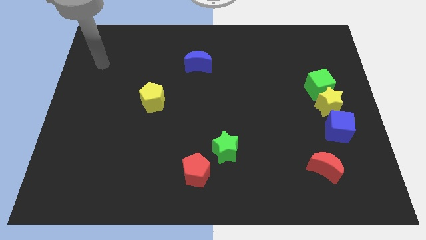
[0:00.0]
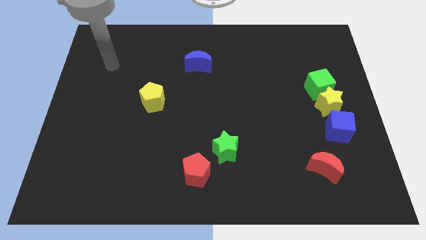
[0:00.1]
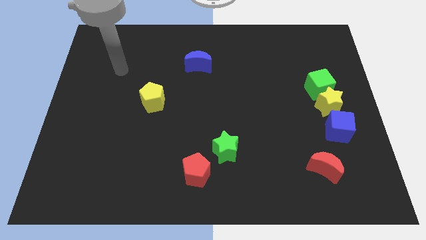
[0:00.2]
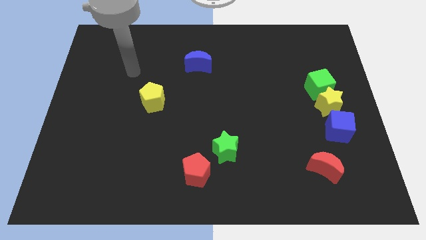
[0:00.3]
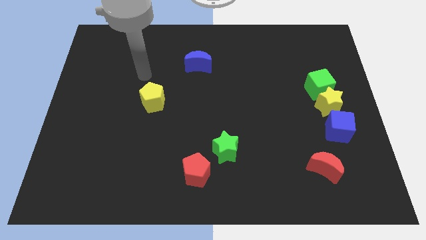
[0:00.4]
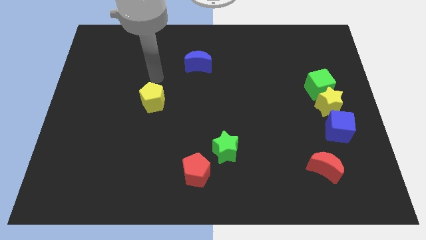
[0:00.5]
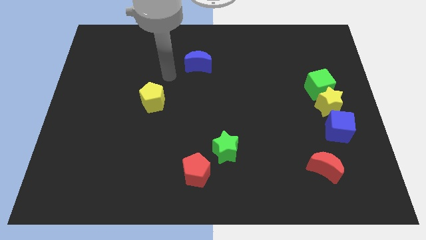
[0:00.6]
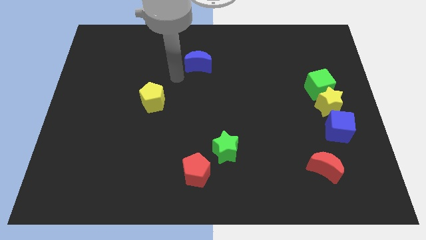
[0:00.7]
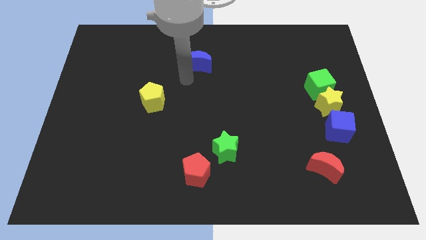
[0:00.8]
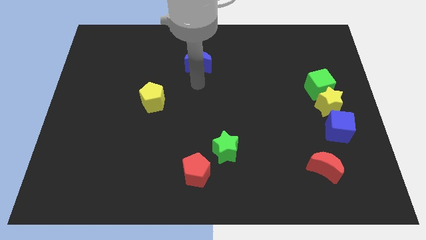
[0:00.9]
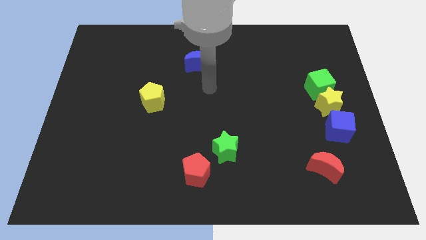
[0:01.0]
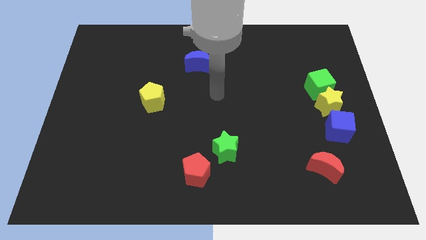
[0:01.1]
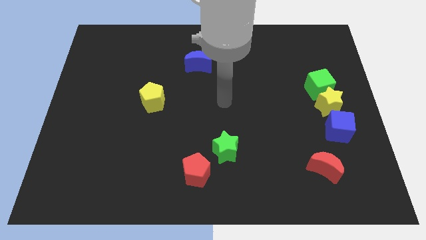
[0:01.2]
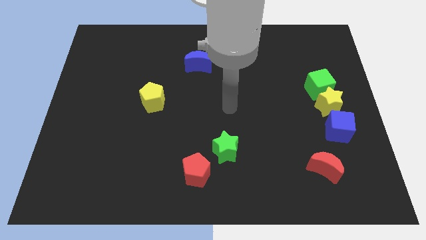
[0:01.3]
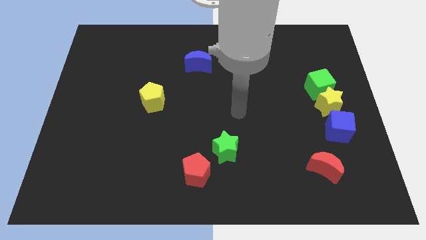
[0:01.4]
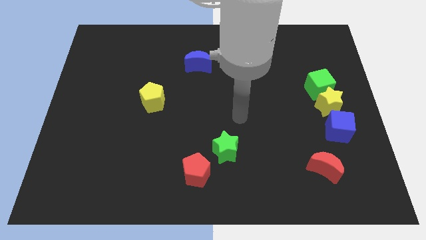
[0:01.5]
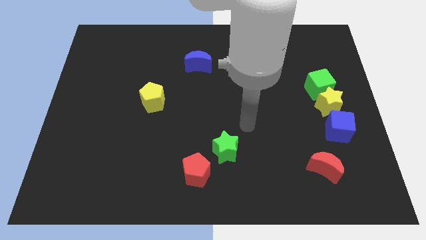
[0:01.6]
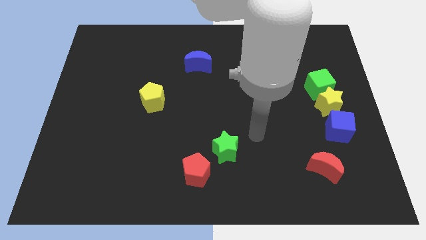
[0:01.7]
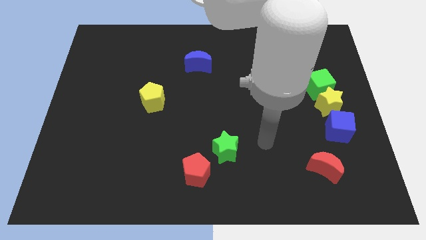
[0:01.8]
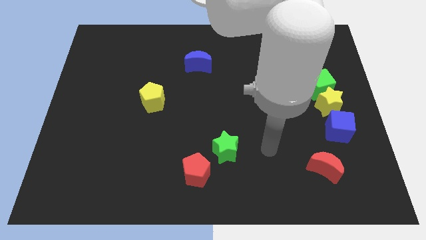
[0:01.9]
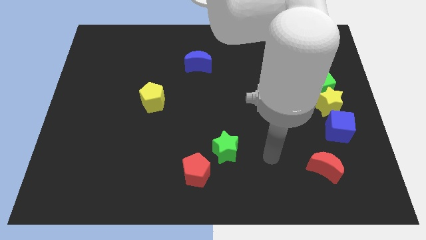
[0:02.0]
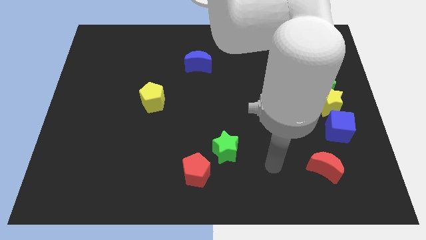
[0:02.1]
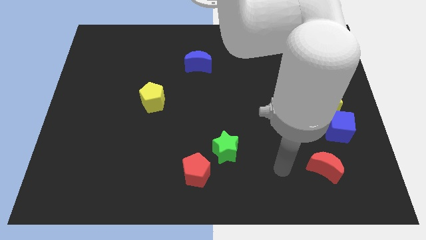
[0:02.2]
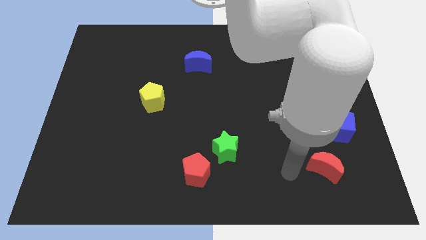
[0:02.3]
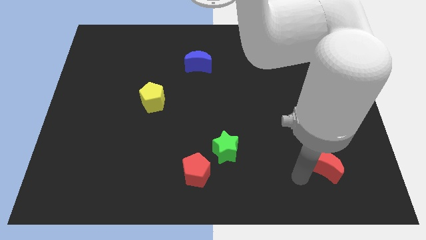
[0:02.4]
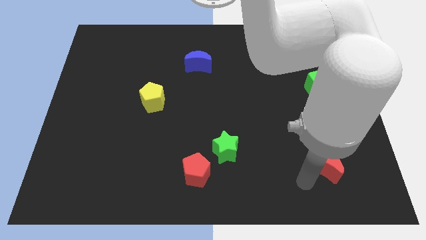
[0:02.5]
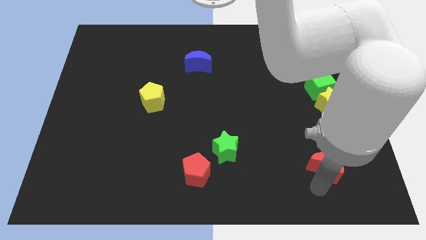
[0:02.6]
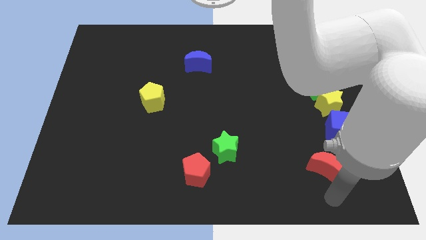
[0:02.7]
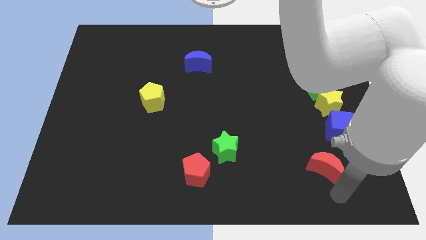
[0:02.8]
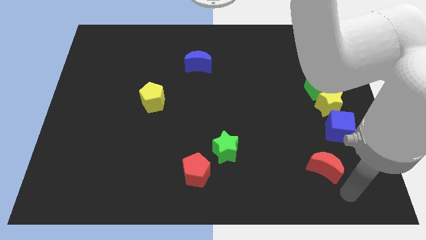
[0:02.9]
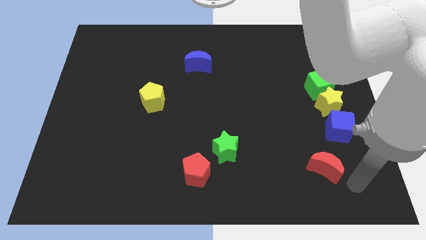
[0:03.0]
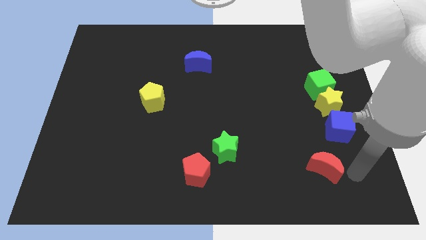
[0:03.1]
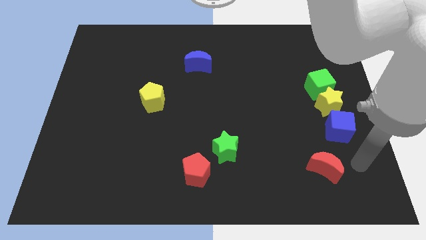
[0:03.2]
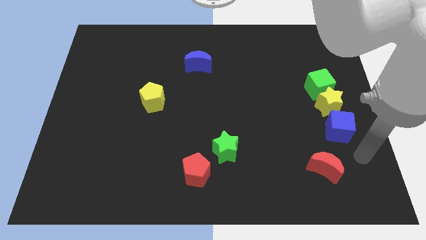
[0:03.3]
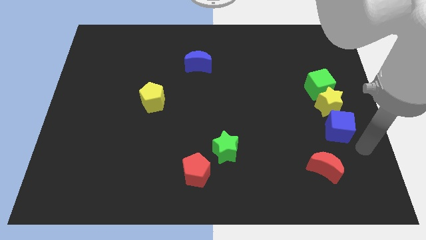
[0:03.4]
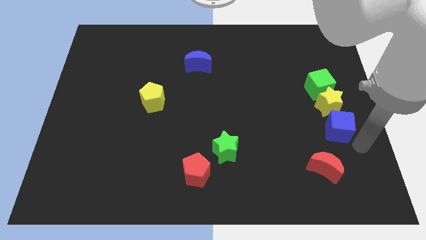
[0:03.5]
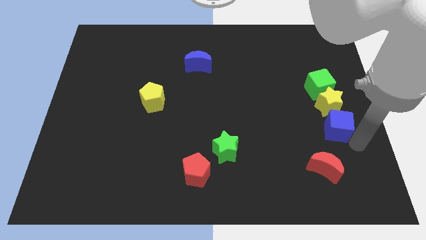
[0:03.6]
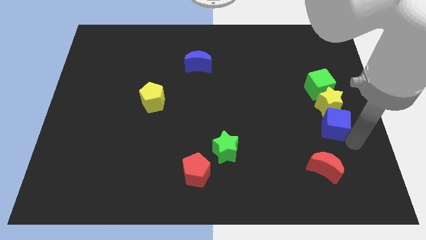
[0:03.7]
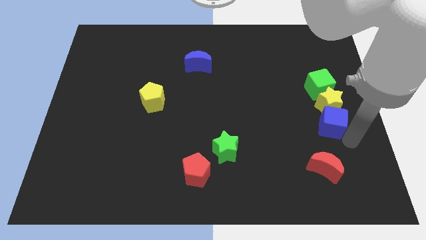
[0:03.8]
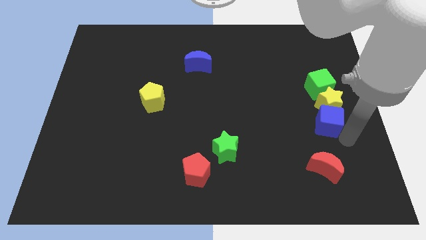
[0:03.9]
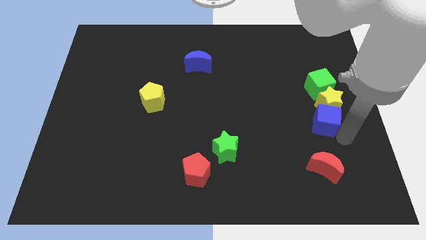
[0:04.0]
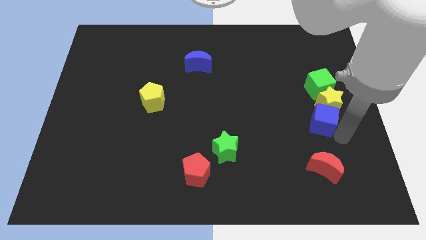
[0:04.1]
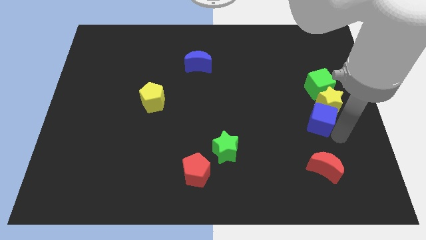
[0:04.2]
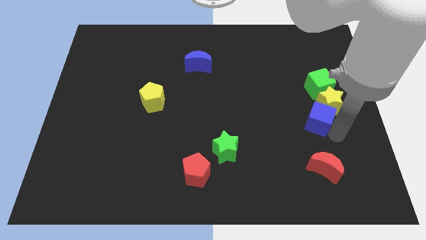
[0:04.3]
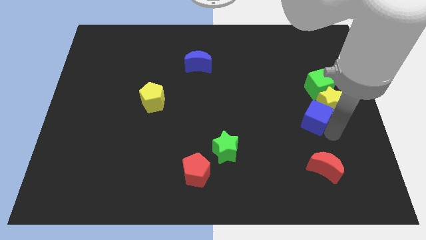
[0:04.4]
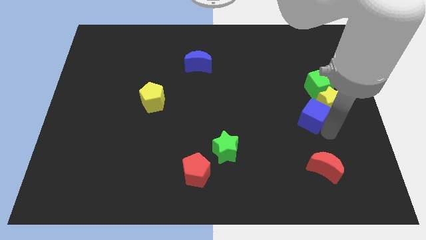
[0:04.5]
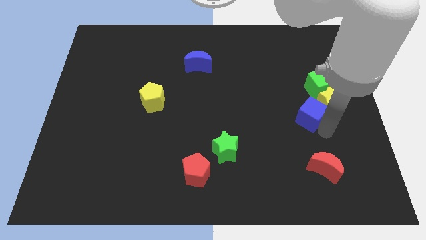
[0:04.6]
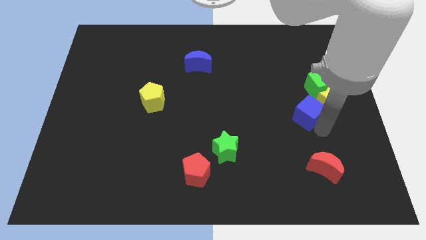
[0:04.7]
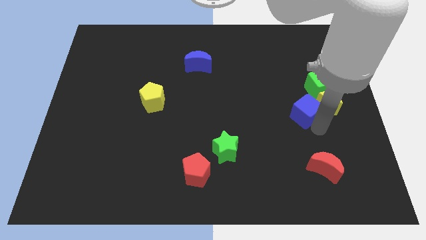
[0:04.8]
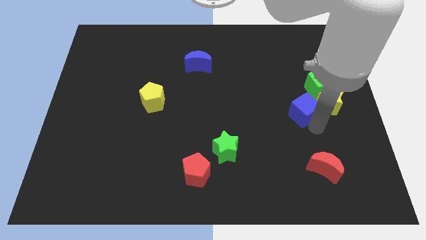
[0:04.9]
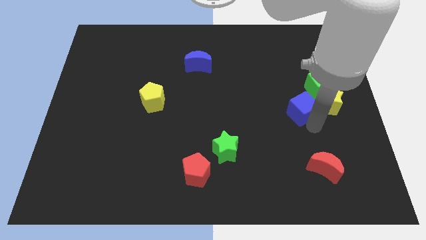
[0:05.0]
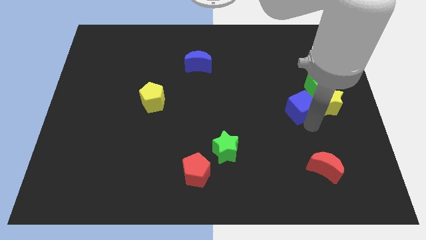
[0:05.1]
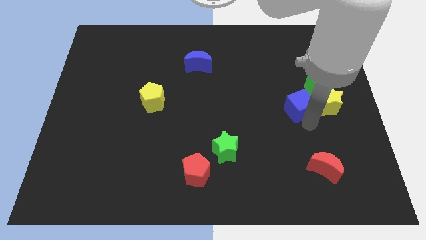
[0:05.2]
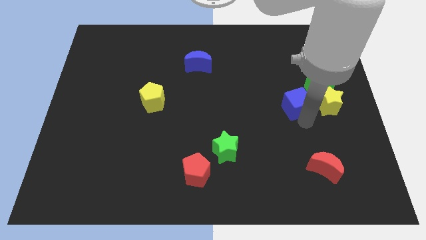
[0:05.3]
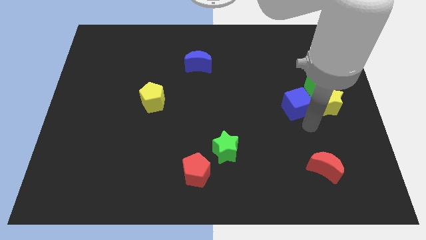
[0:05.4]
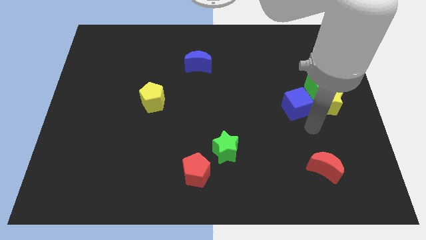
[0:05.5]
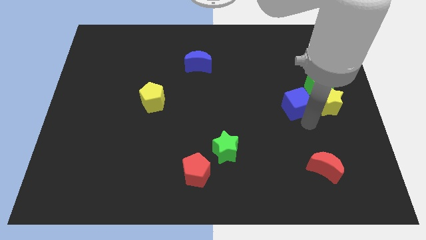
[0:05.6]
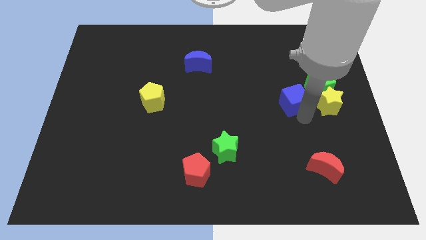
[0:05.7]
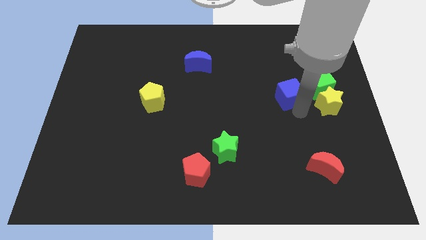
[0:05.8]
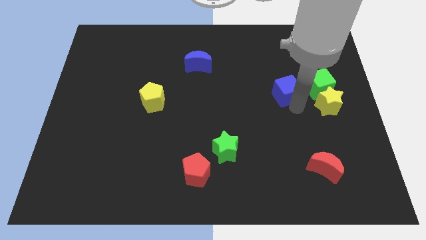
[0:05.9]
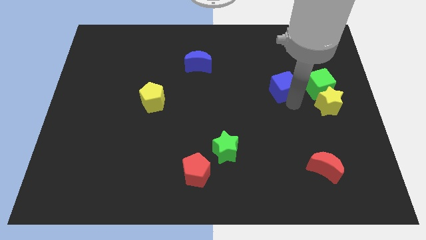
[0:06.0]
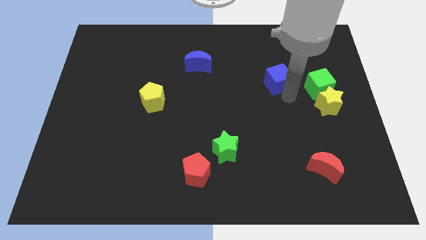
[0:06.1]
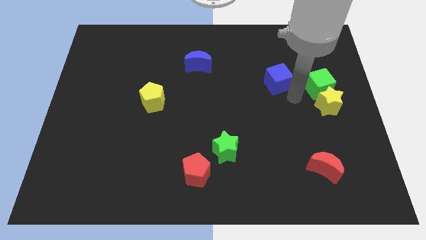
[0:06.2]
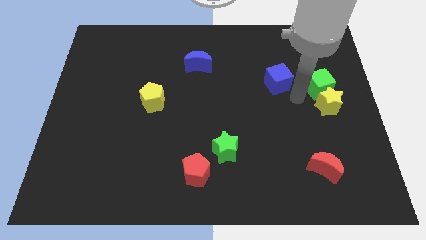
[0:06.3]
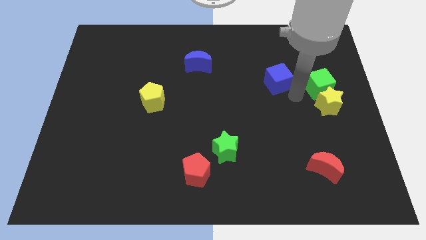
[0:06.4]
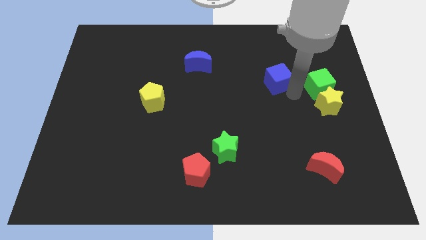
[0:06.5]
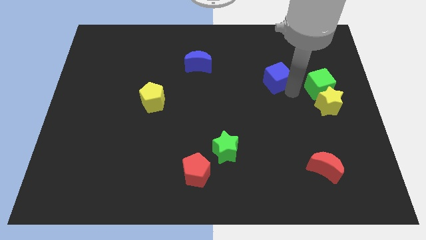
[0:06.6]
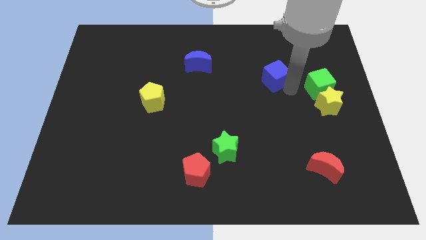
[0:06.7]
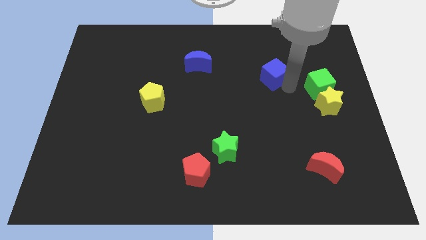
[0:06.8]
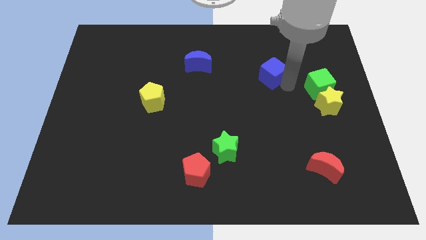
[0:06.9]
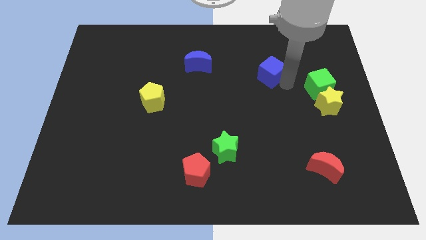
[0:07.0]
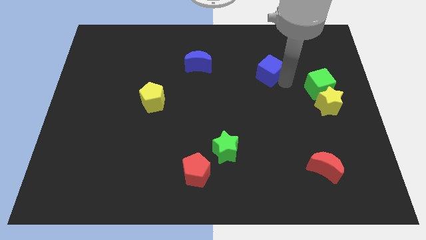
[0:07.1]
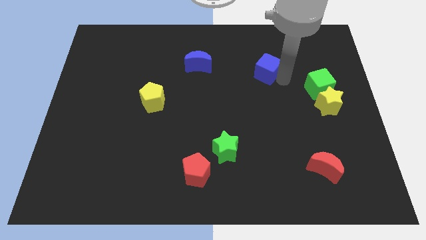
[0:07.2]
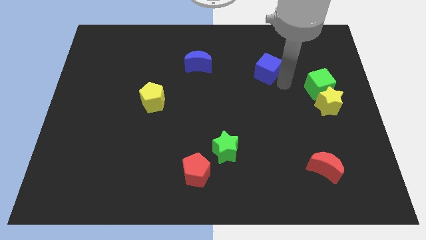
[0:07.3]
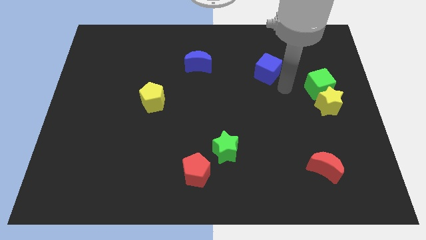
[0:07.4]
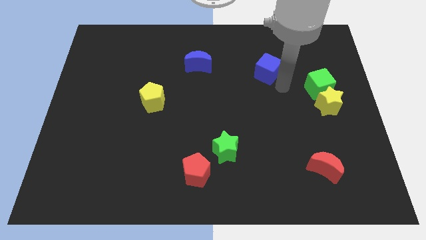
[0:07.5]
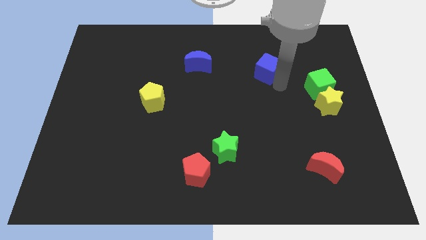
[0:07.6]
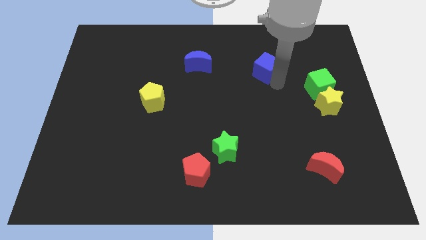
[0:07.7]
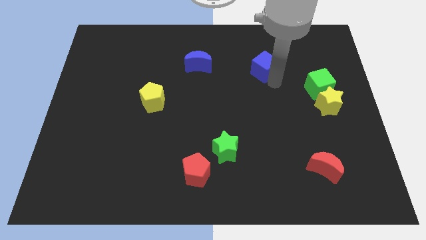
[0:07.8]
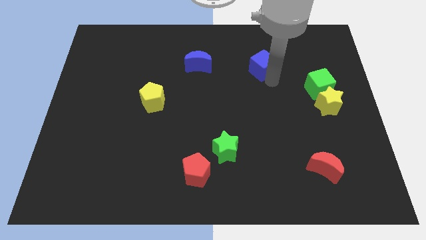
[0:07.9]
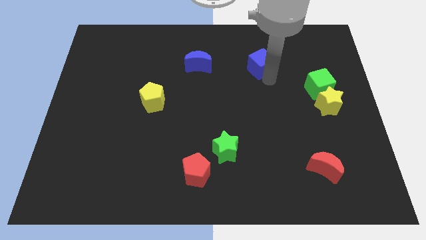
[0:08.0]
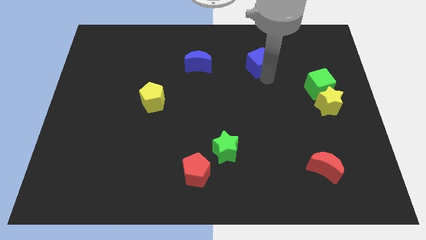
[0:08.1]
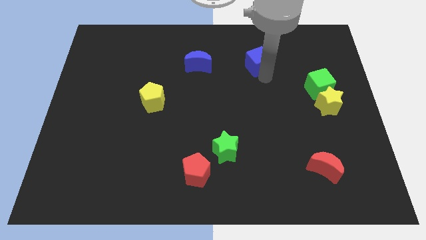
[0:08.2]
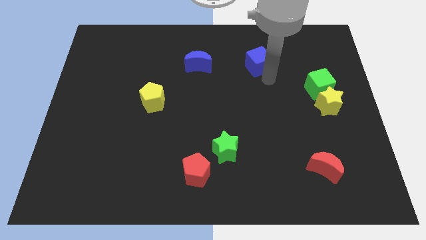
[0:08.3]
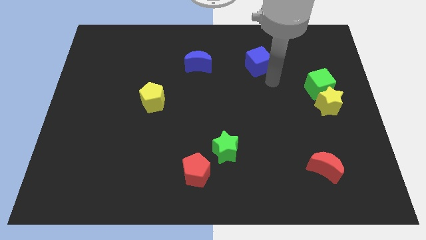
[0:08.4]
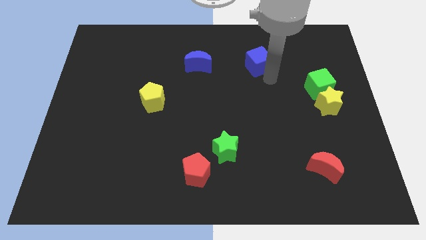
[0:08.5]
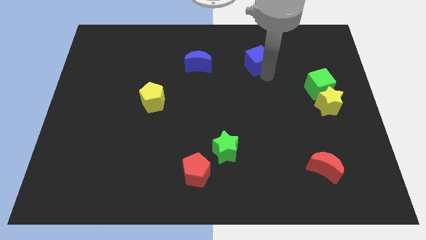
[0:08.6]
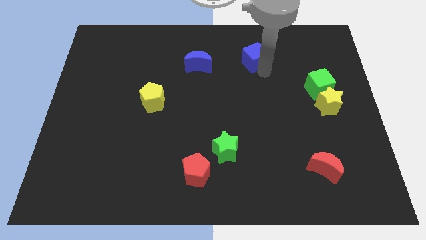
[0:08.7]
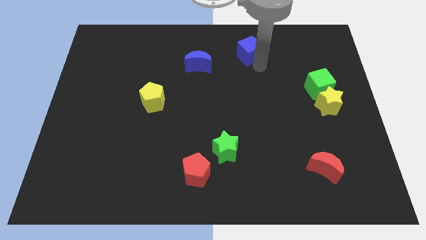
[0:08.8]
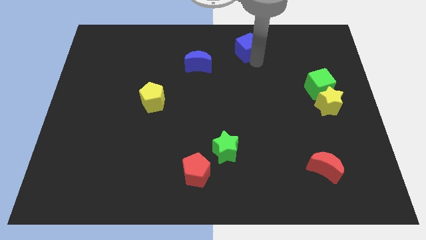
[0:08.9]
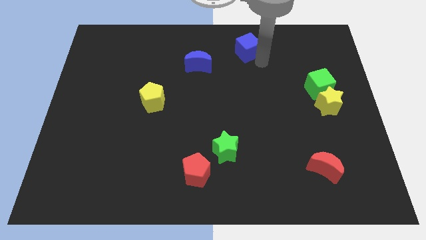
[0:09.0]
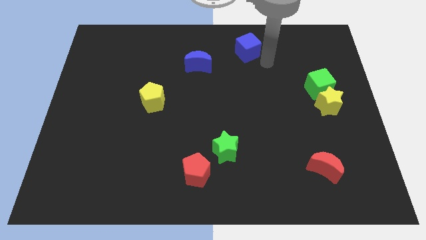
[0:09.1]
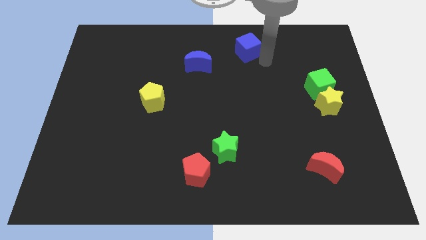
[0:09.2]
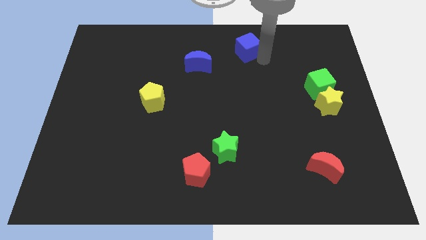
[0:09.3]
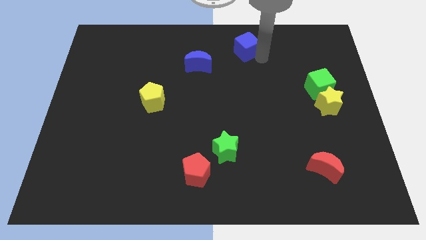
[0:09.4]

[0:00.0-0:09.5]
move the blue cube to the top
